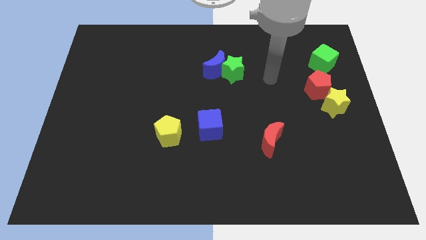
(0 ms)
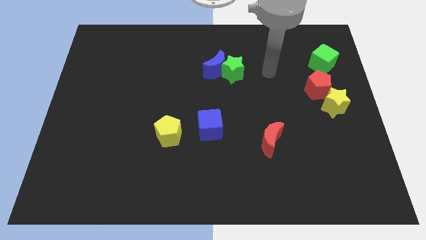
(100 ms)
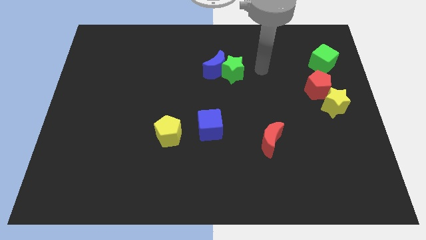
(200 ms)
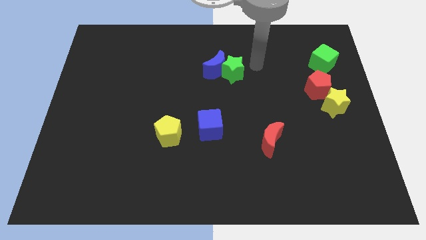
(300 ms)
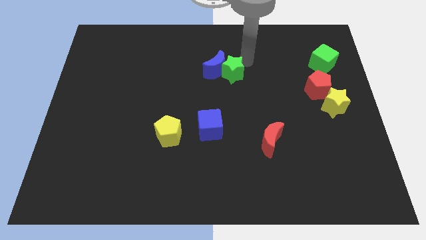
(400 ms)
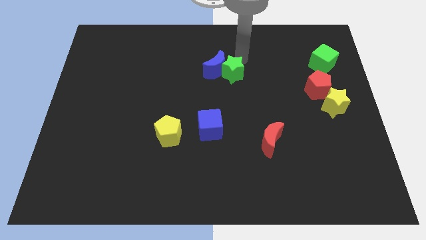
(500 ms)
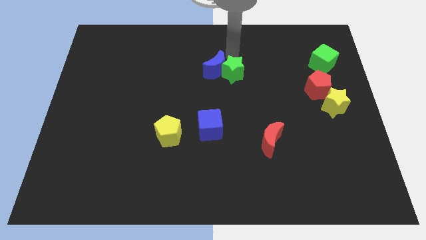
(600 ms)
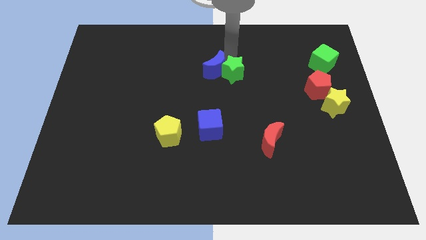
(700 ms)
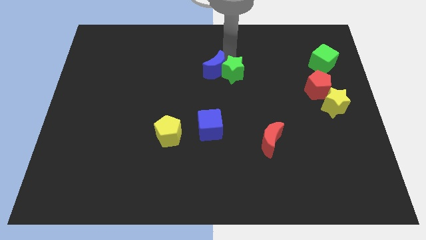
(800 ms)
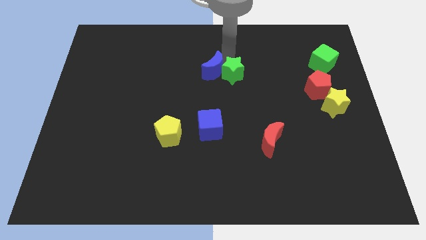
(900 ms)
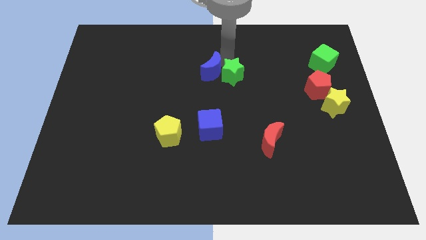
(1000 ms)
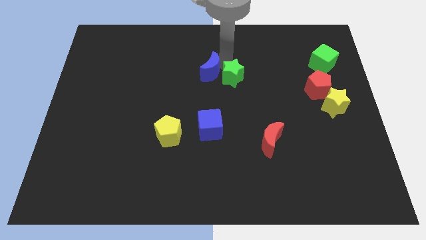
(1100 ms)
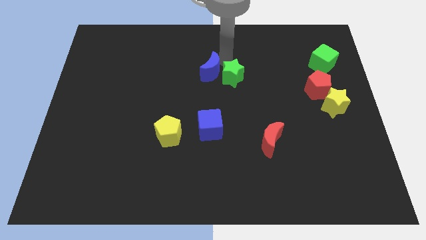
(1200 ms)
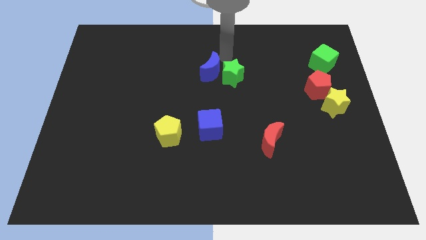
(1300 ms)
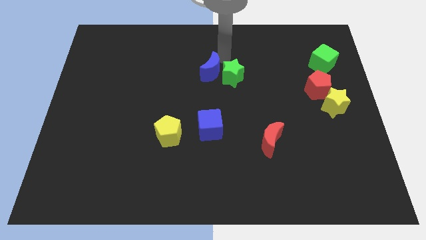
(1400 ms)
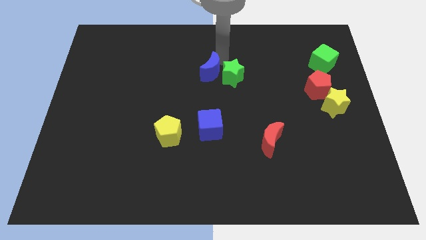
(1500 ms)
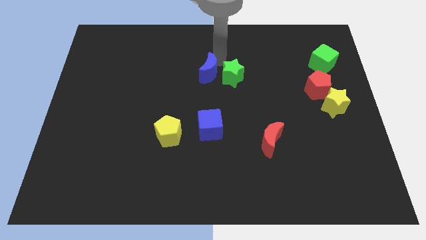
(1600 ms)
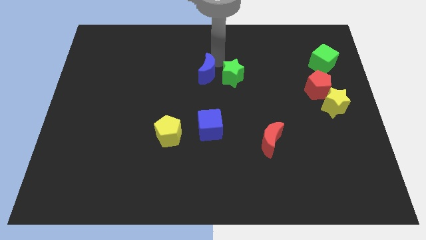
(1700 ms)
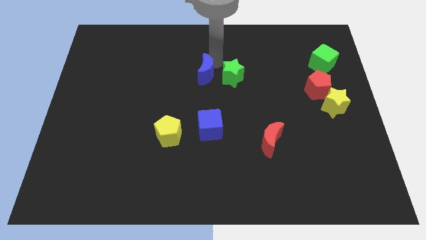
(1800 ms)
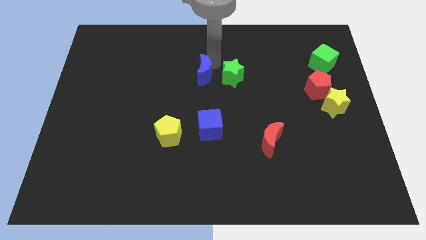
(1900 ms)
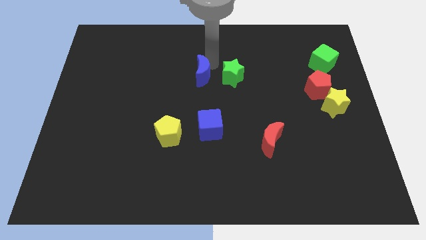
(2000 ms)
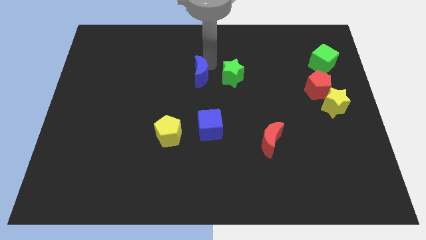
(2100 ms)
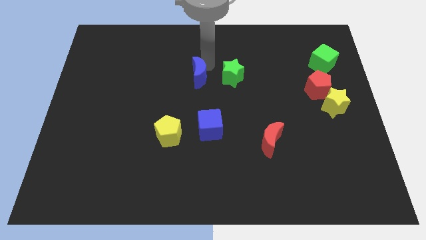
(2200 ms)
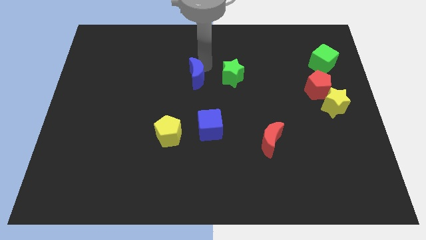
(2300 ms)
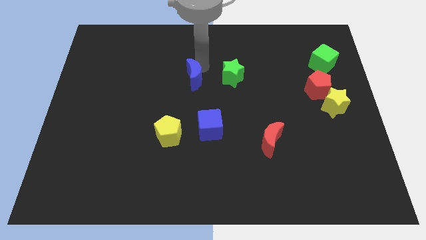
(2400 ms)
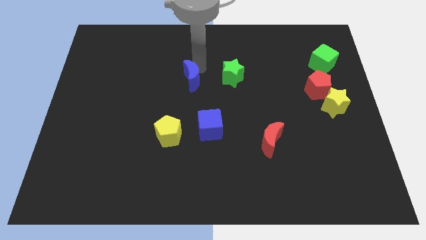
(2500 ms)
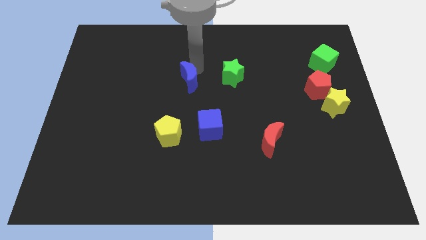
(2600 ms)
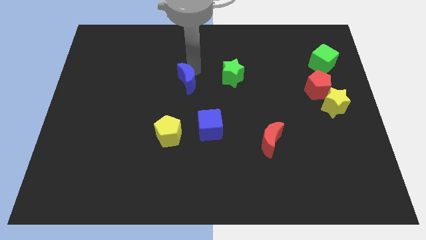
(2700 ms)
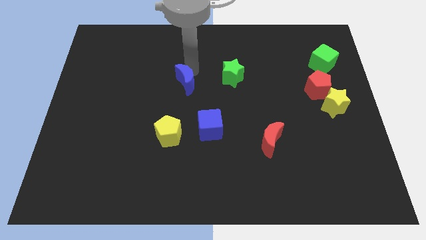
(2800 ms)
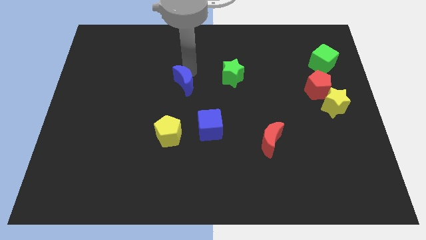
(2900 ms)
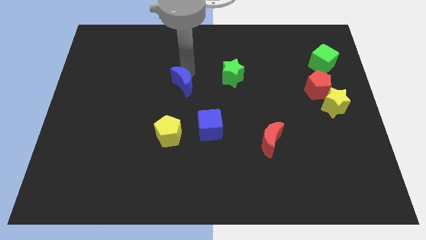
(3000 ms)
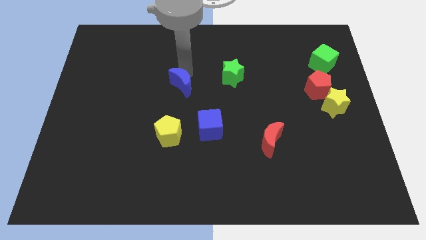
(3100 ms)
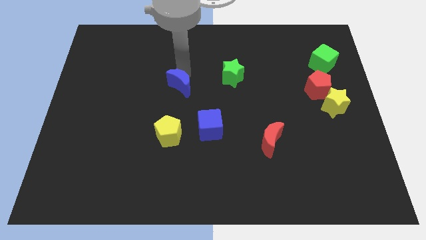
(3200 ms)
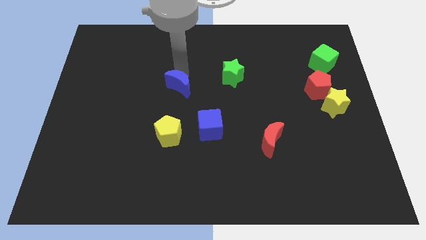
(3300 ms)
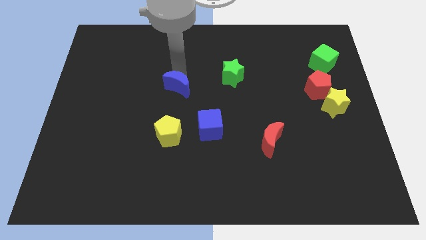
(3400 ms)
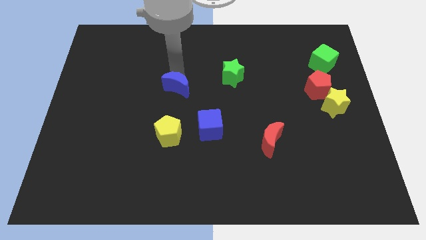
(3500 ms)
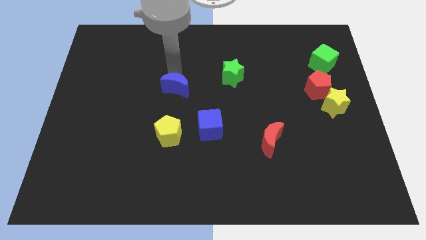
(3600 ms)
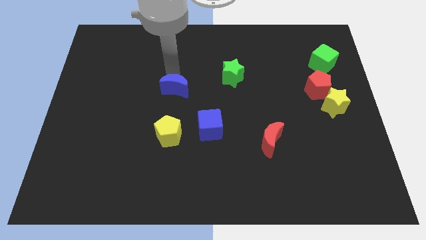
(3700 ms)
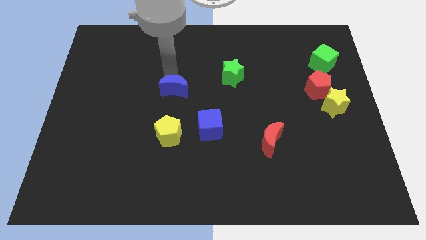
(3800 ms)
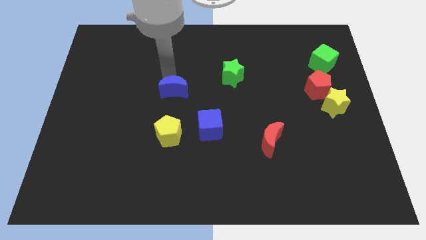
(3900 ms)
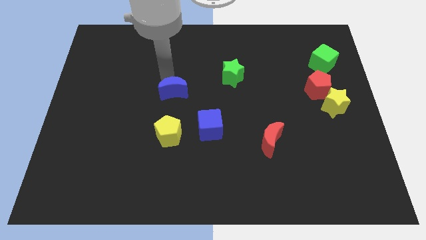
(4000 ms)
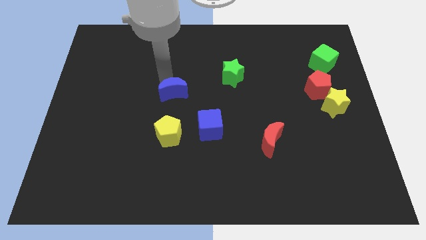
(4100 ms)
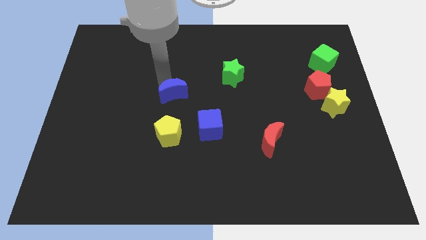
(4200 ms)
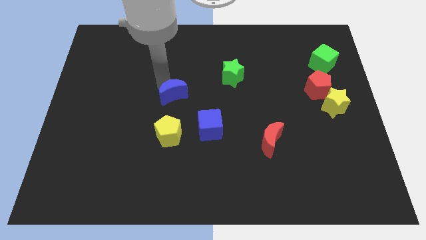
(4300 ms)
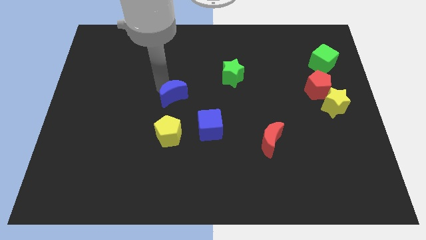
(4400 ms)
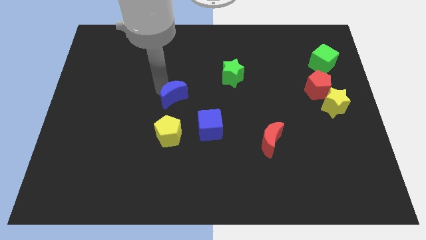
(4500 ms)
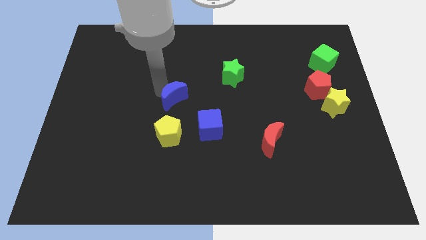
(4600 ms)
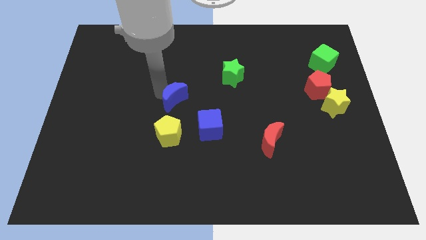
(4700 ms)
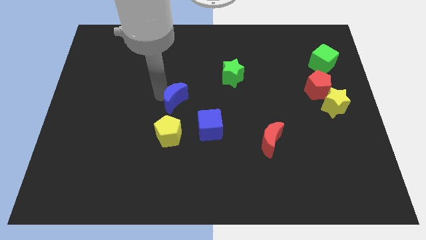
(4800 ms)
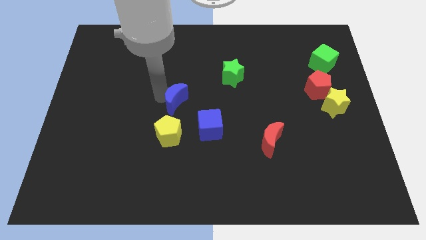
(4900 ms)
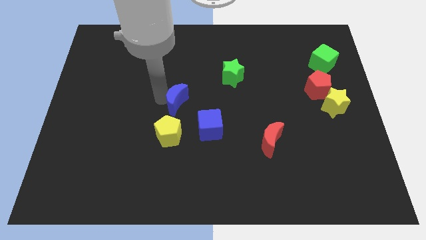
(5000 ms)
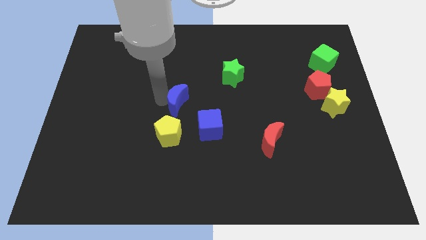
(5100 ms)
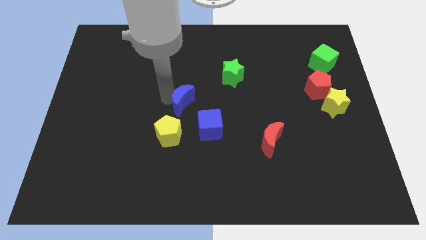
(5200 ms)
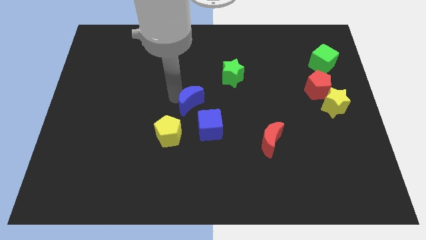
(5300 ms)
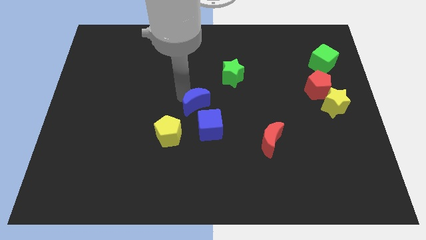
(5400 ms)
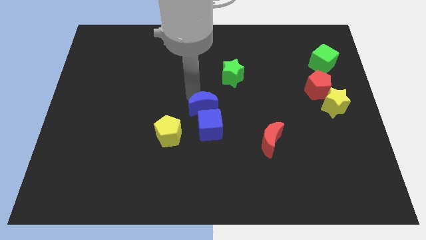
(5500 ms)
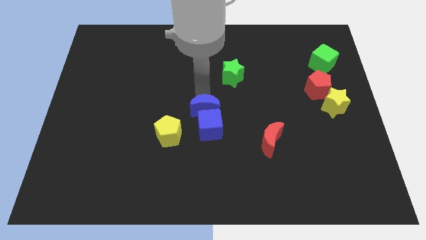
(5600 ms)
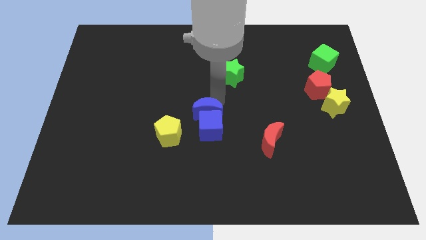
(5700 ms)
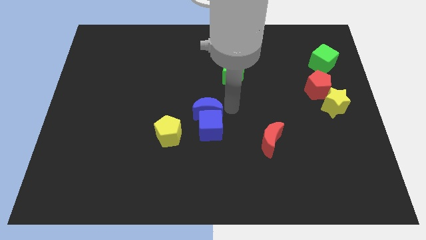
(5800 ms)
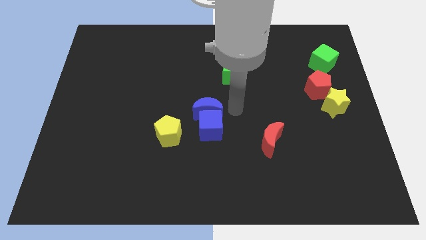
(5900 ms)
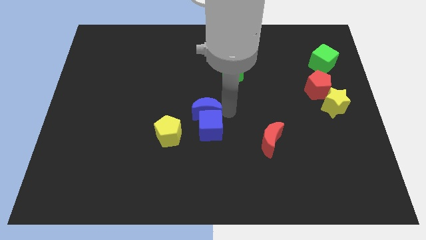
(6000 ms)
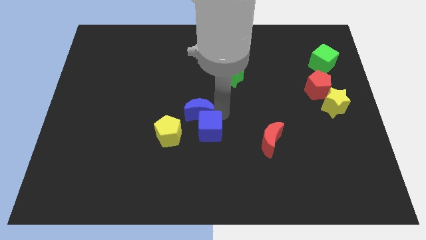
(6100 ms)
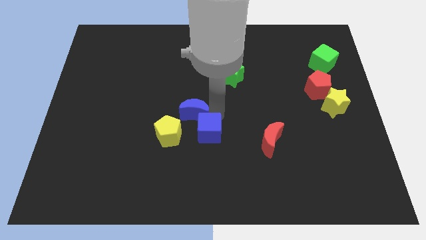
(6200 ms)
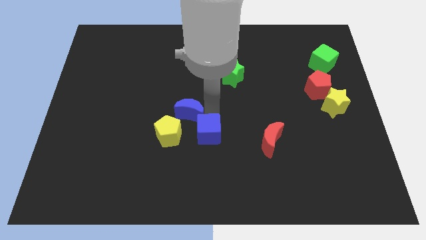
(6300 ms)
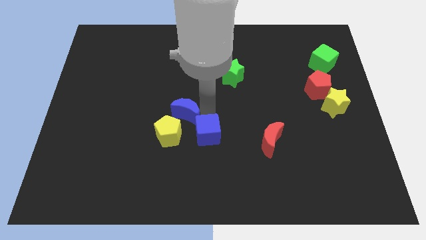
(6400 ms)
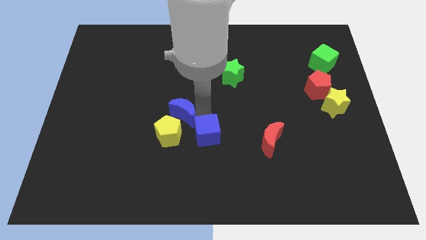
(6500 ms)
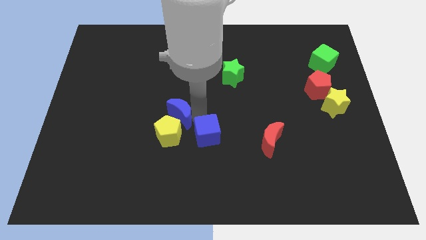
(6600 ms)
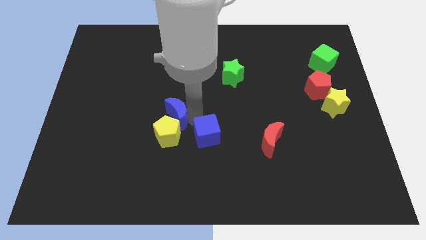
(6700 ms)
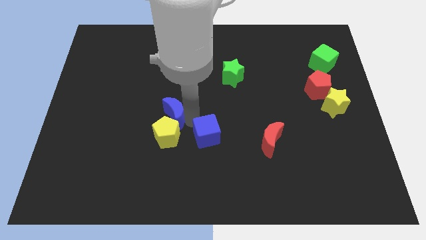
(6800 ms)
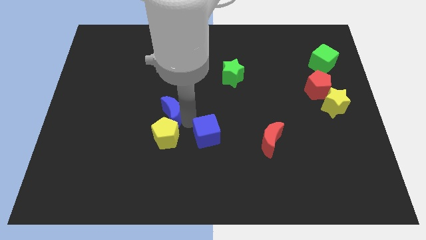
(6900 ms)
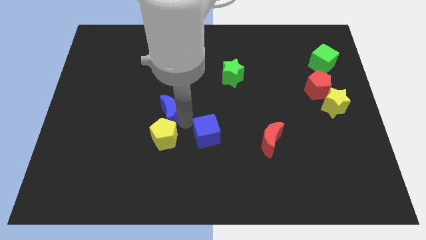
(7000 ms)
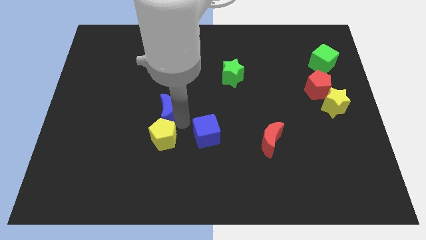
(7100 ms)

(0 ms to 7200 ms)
put the blue moon diagonally up and to the left of the yellow pentagon
